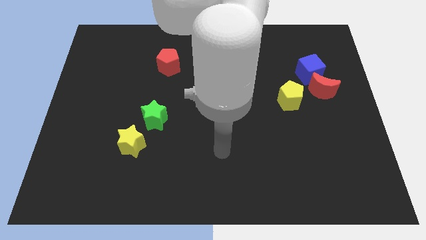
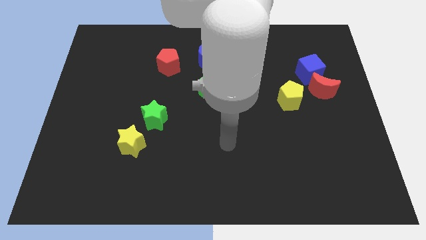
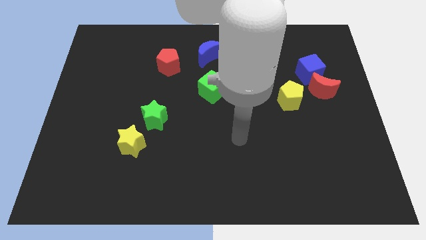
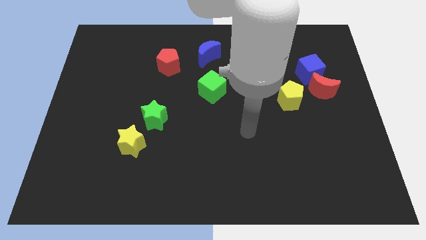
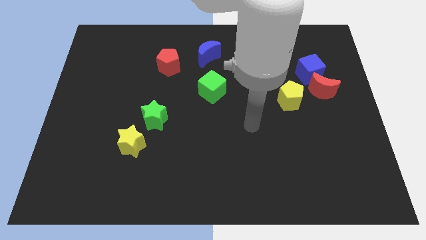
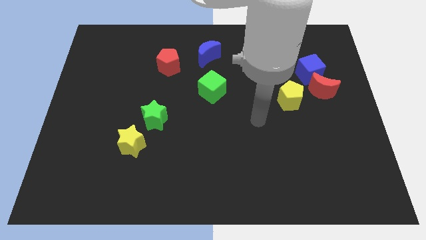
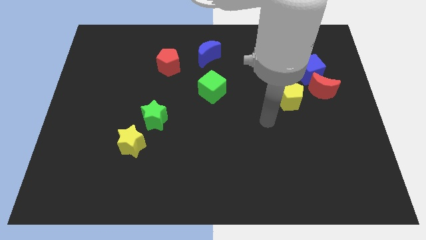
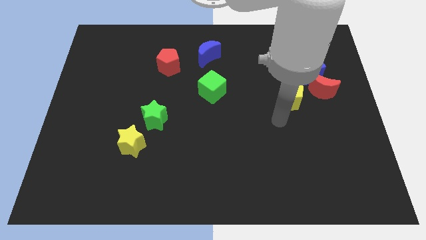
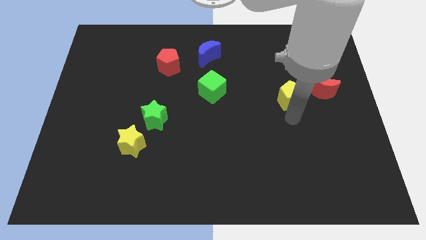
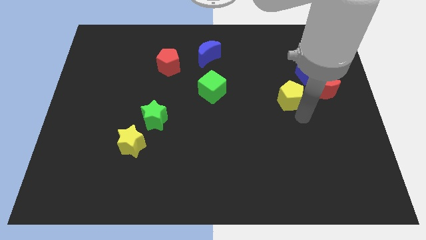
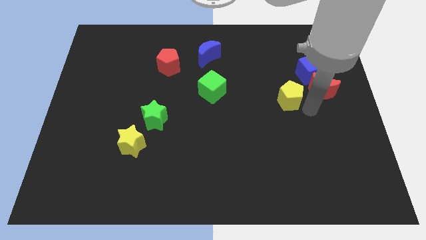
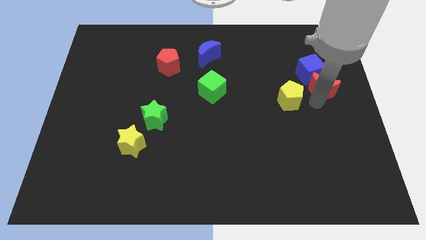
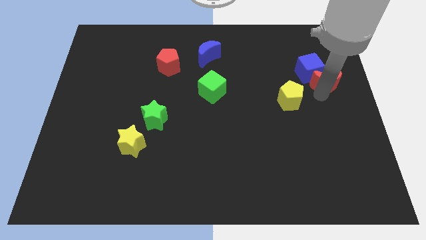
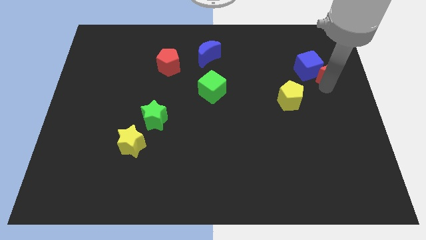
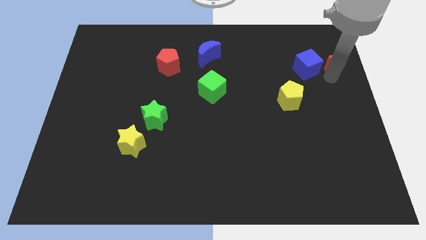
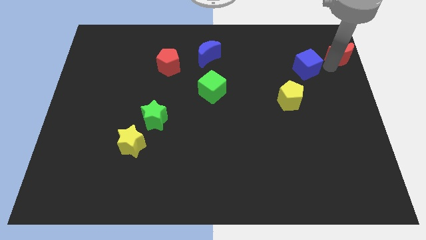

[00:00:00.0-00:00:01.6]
move the blue cube away from the red moon

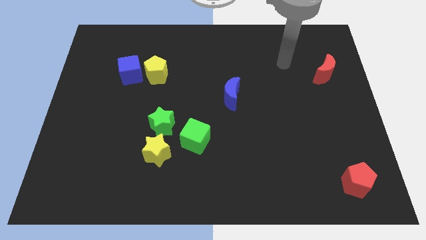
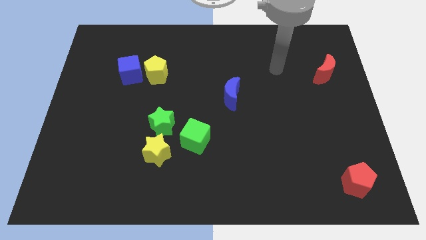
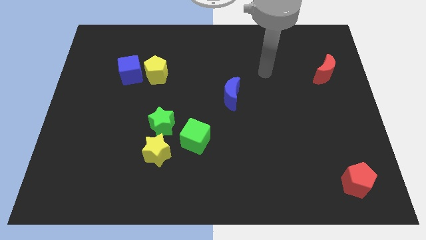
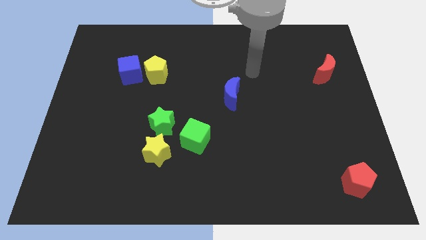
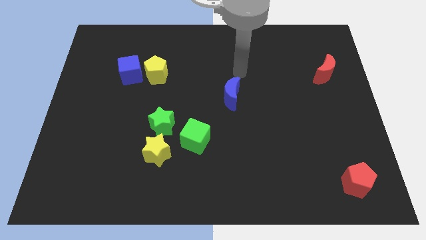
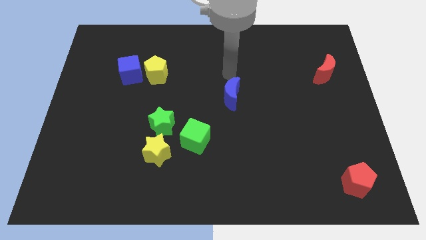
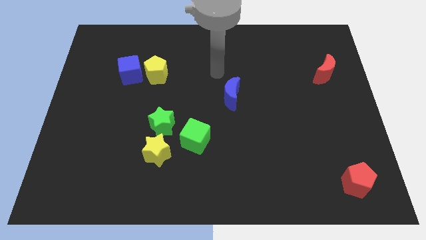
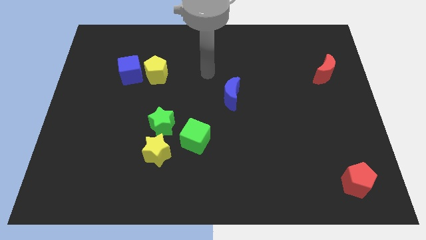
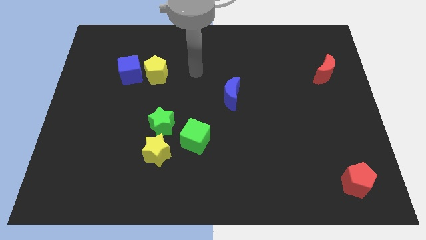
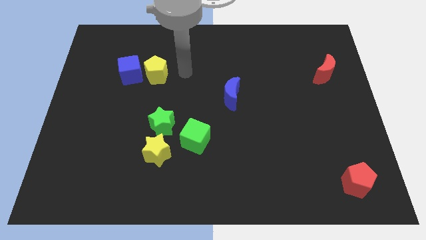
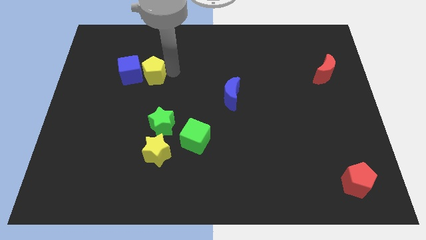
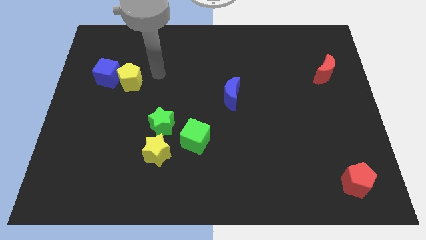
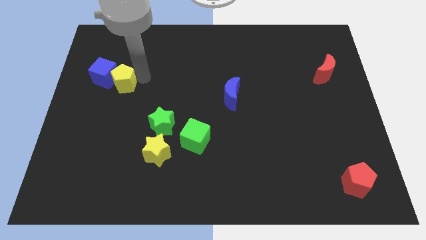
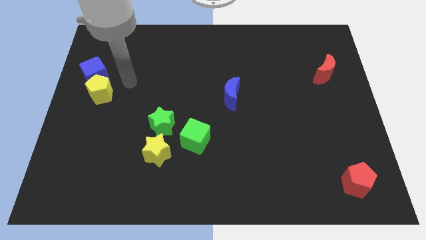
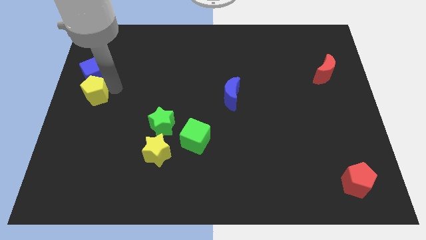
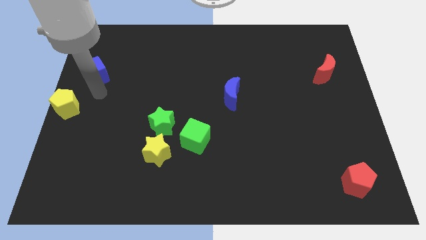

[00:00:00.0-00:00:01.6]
pull the blue cube apart from the yellow pentagon

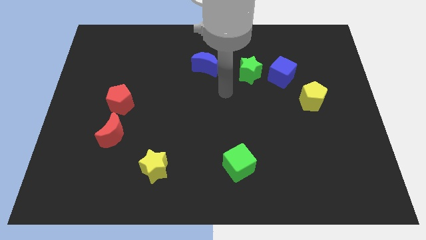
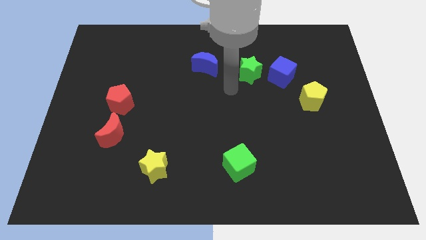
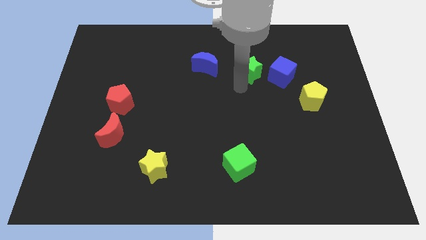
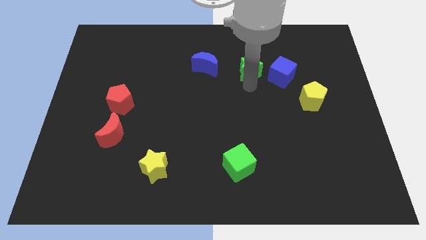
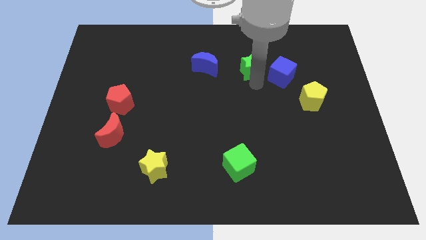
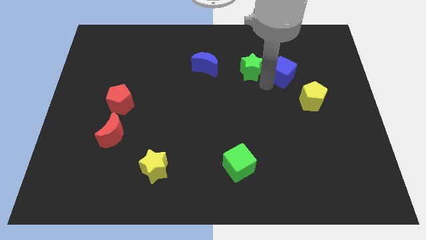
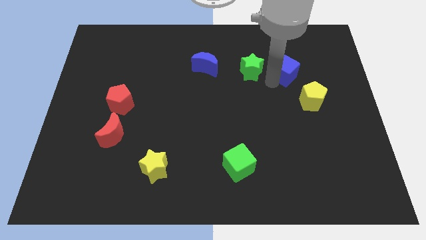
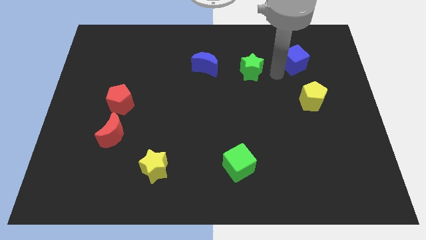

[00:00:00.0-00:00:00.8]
separate the green star from the blue cube

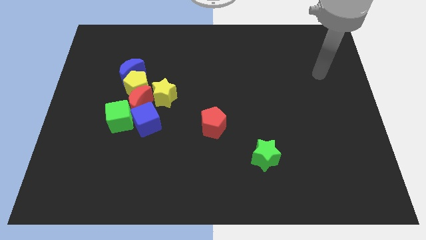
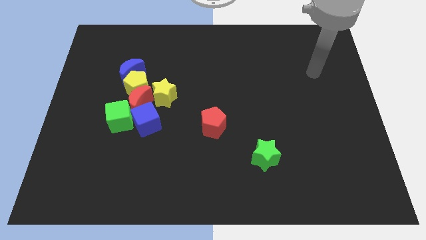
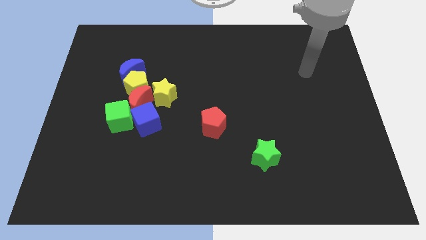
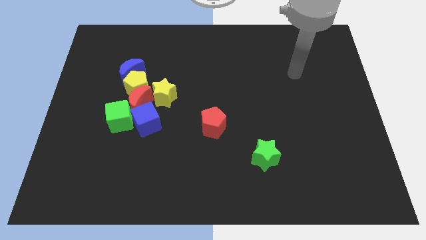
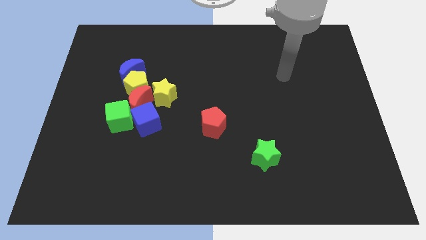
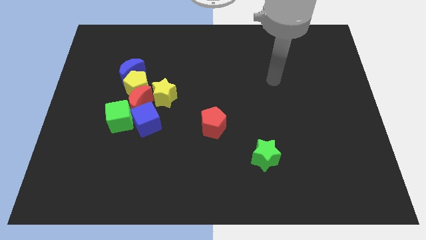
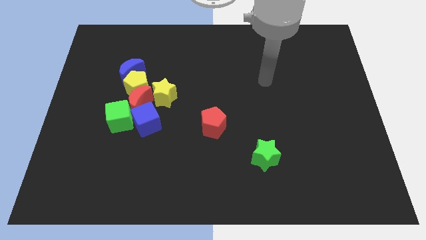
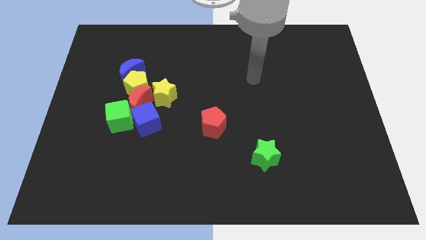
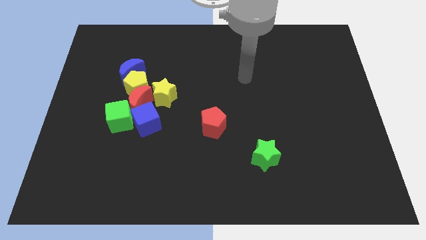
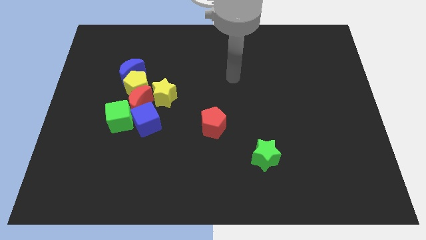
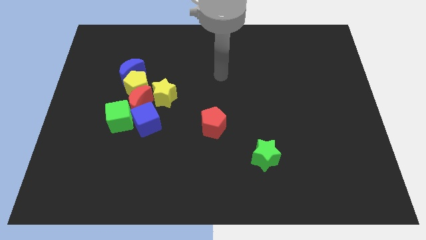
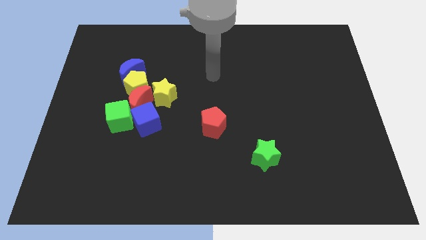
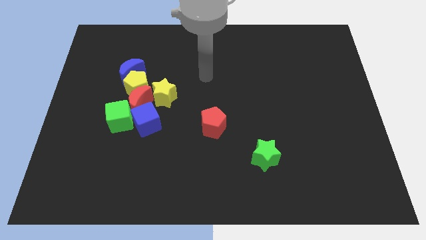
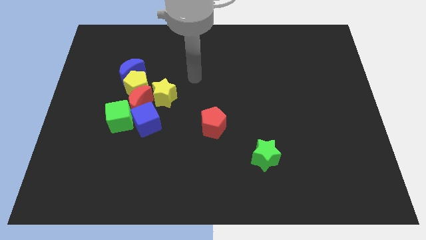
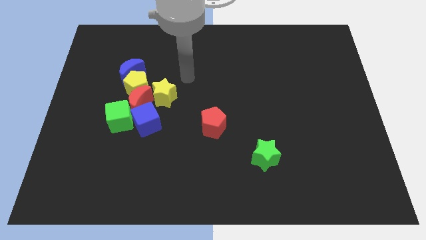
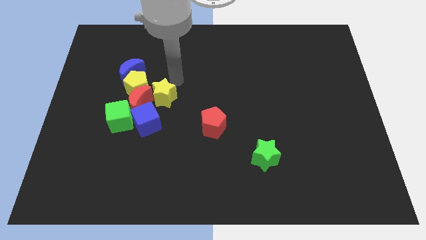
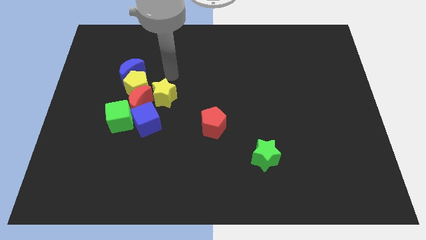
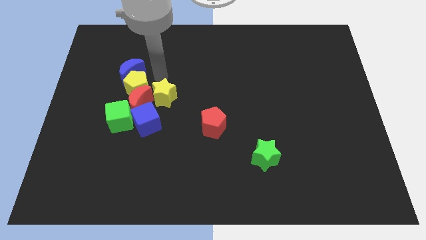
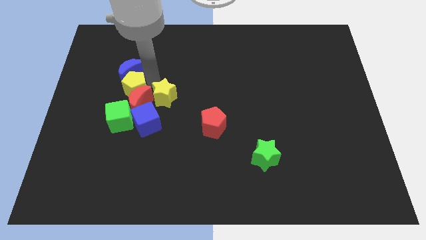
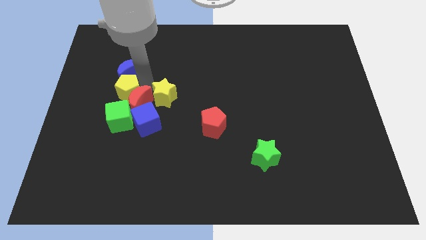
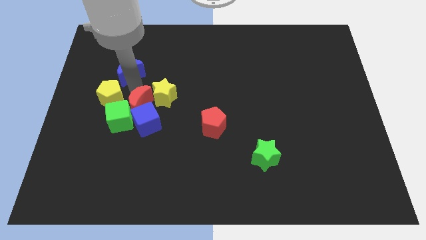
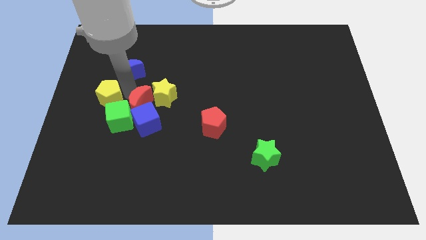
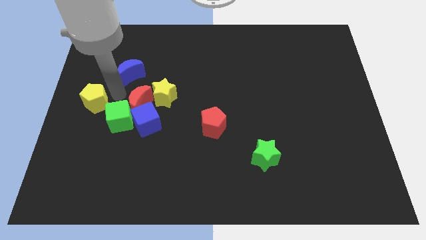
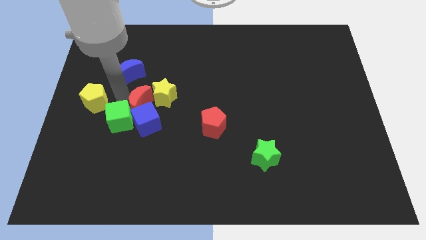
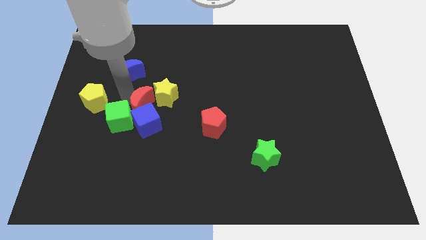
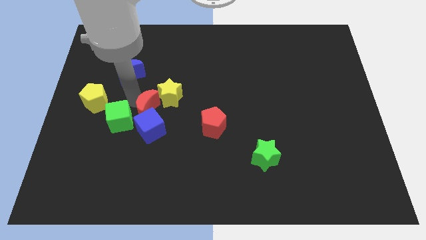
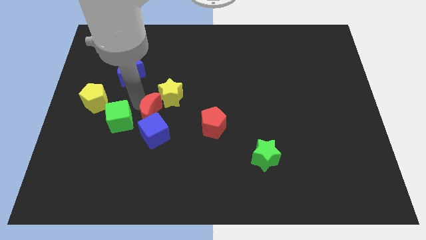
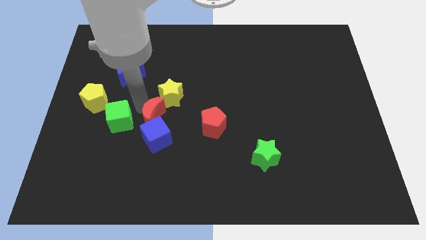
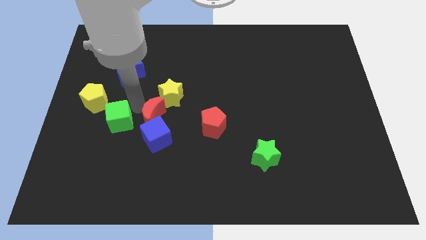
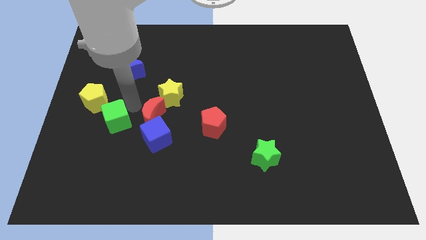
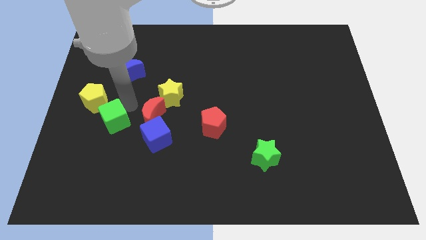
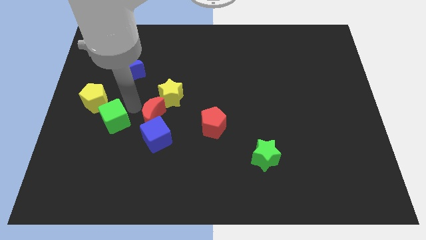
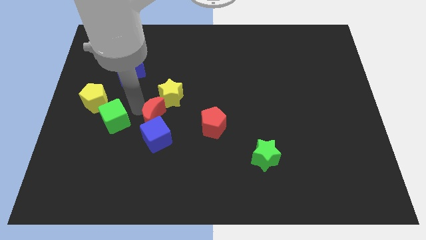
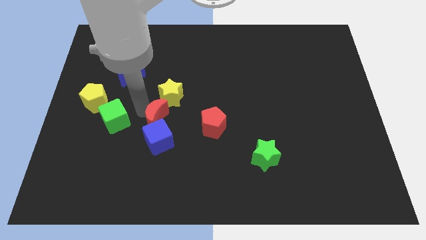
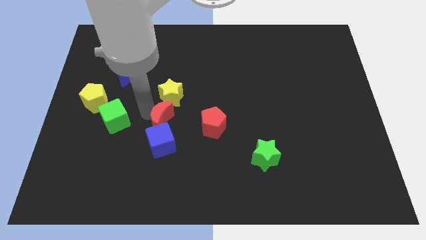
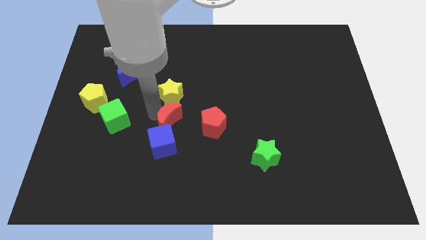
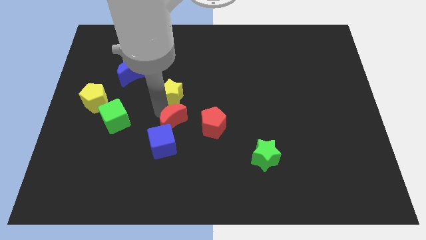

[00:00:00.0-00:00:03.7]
separate the red moon from the clump

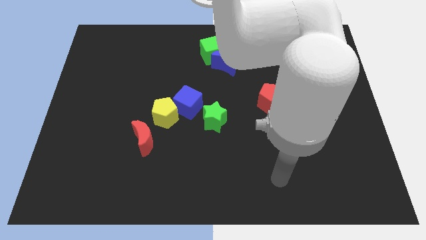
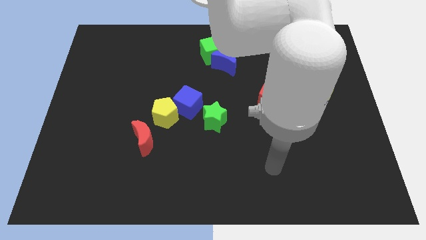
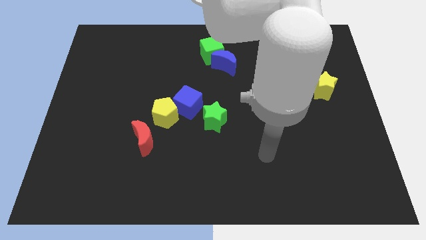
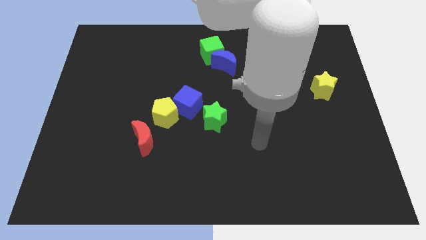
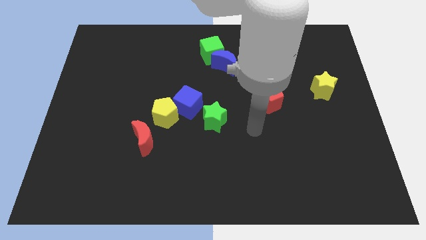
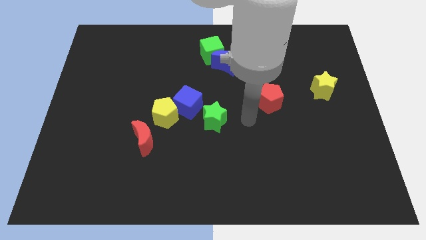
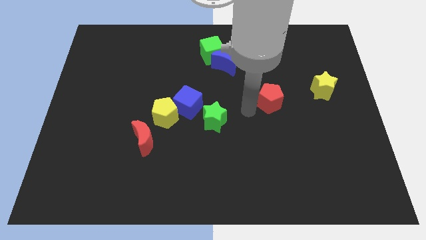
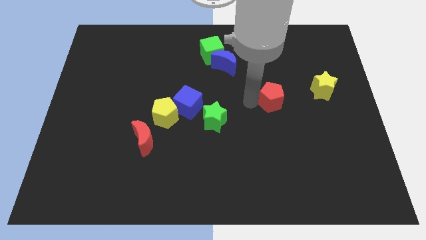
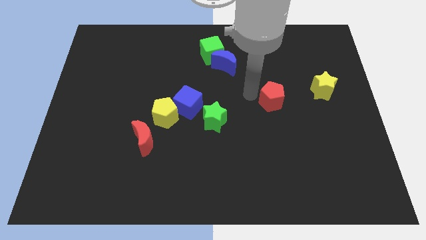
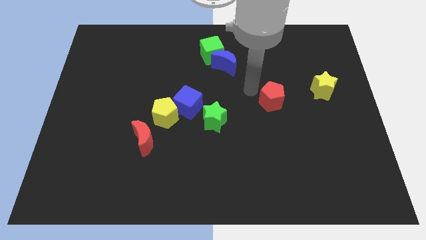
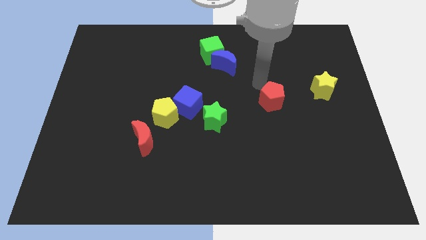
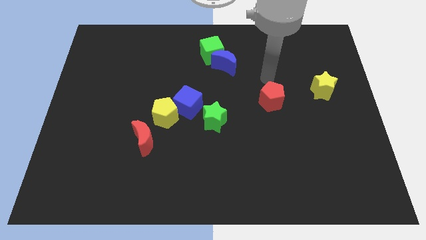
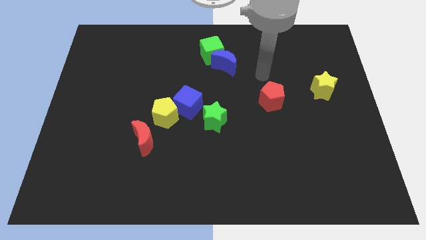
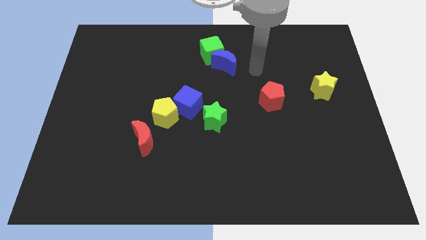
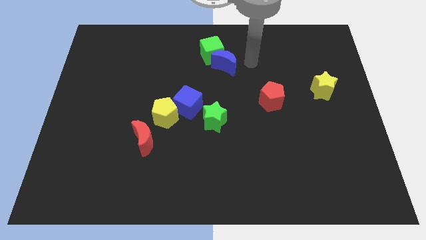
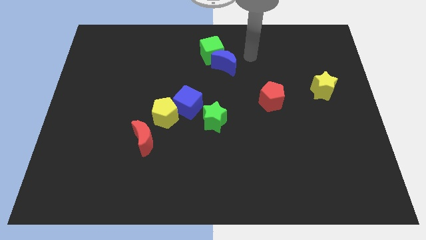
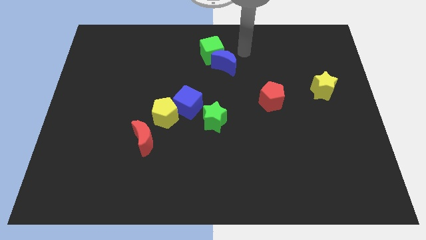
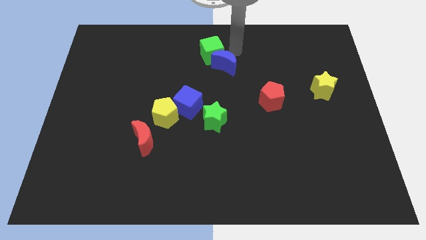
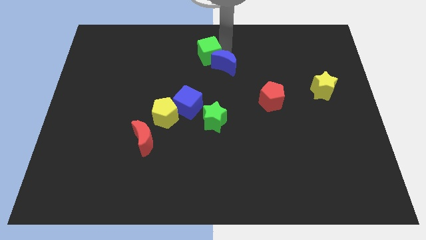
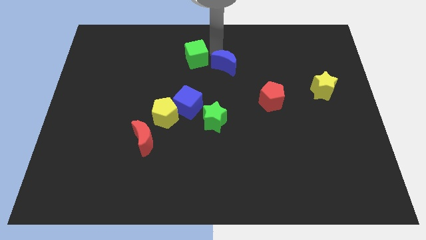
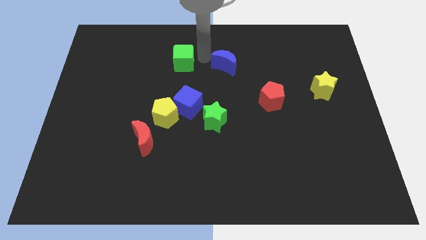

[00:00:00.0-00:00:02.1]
pull the blue moon apart from the green cube
